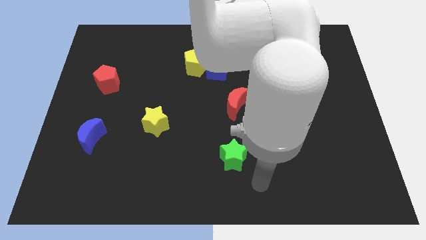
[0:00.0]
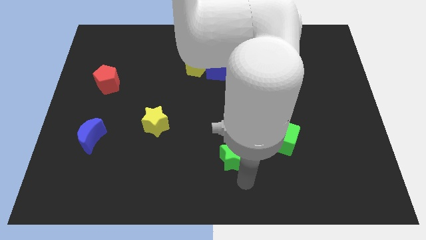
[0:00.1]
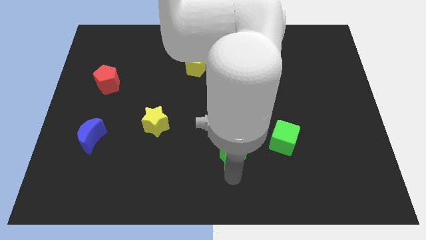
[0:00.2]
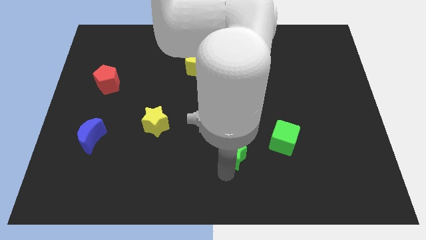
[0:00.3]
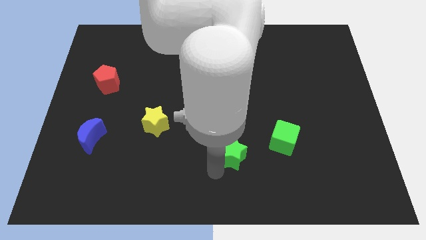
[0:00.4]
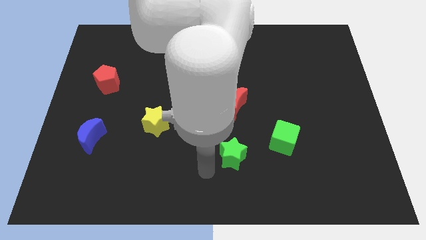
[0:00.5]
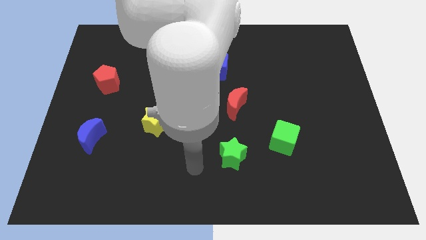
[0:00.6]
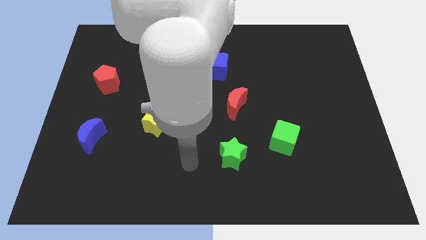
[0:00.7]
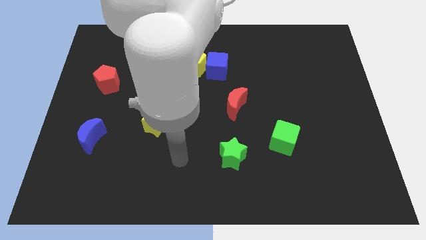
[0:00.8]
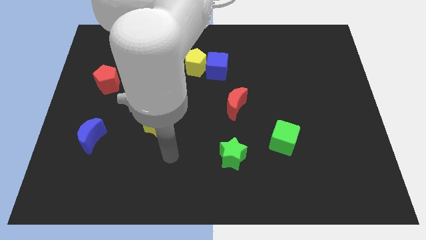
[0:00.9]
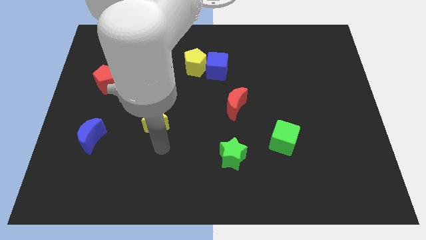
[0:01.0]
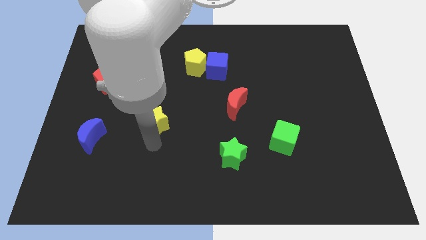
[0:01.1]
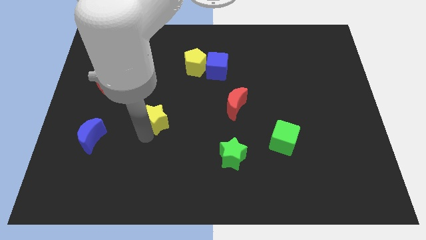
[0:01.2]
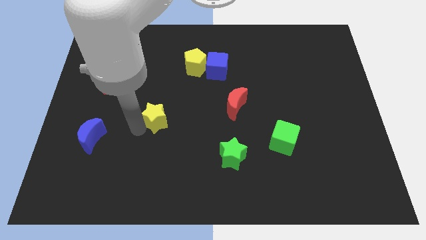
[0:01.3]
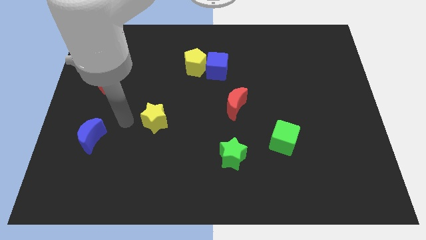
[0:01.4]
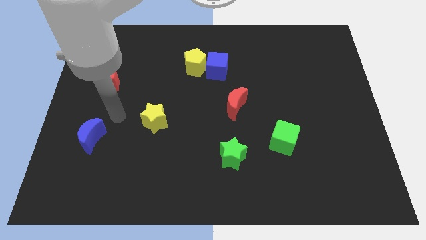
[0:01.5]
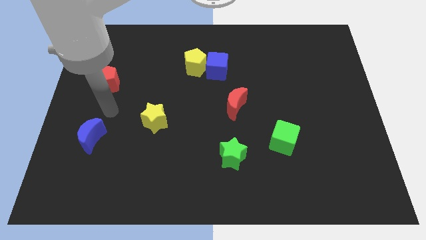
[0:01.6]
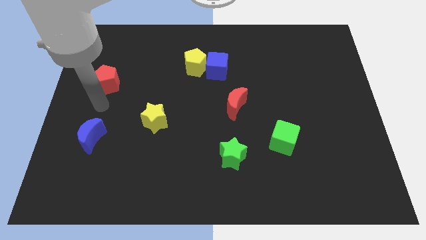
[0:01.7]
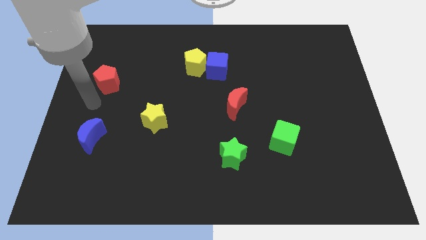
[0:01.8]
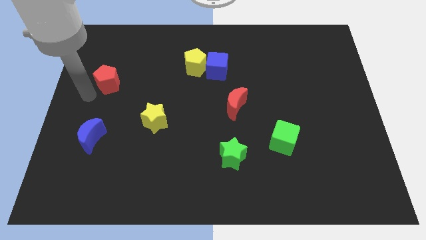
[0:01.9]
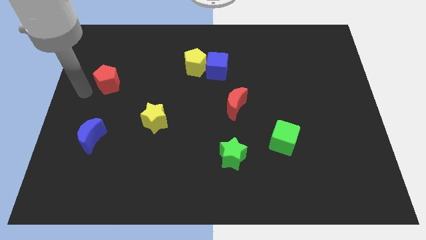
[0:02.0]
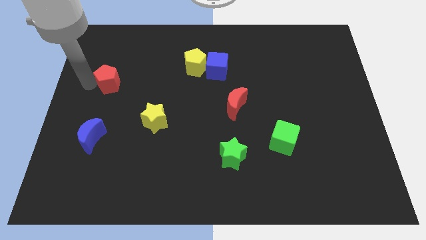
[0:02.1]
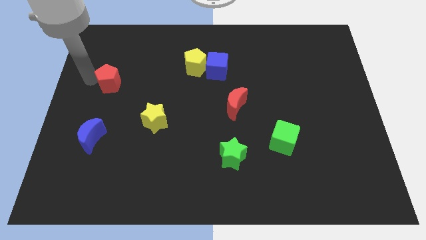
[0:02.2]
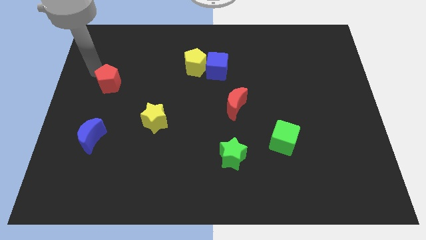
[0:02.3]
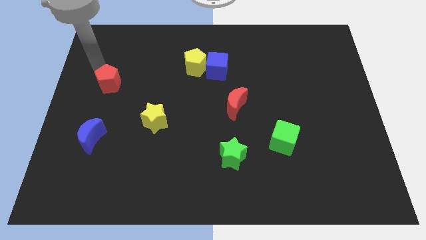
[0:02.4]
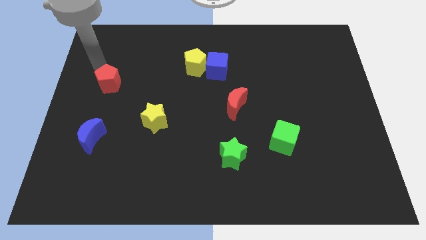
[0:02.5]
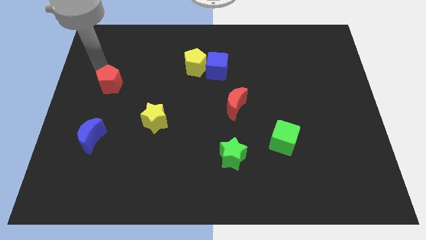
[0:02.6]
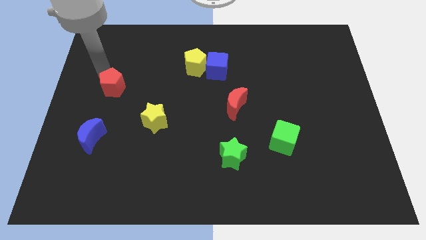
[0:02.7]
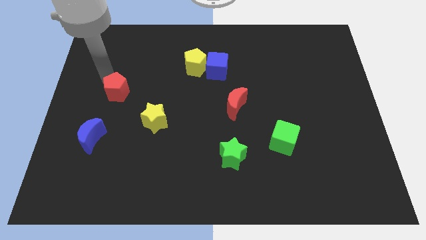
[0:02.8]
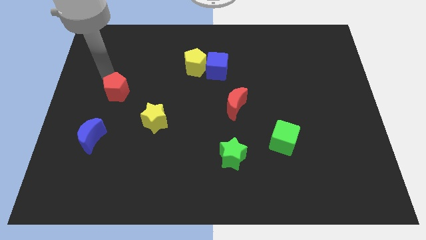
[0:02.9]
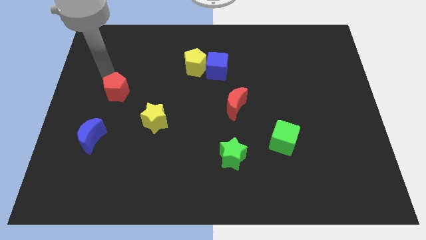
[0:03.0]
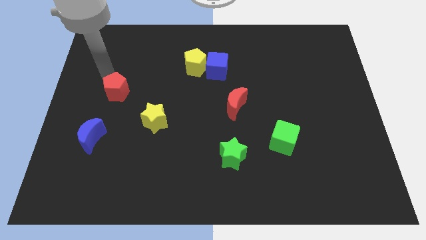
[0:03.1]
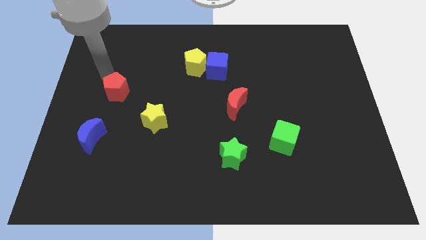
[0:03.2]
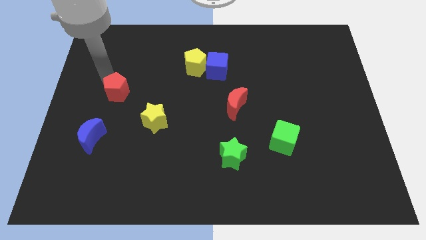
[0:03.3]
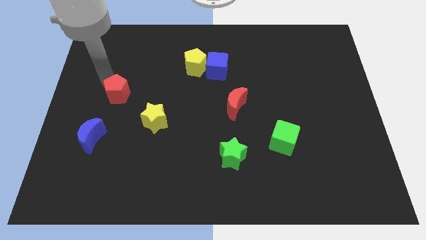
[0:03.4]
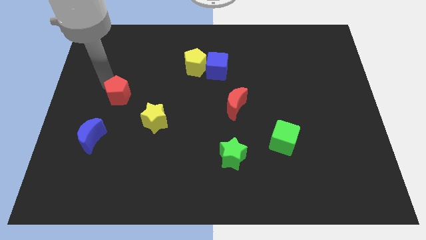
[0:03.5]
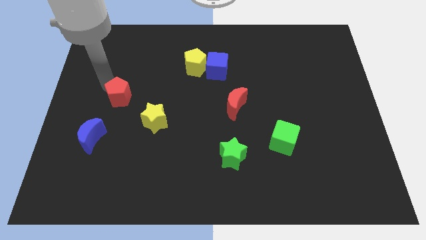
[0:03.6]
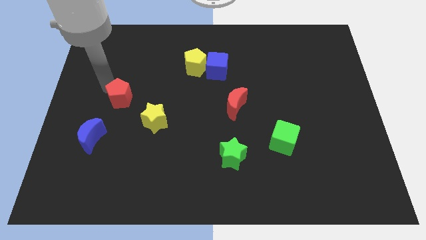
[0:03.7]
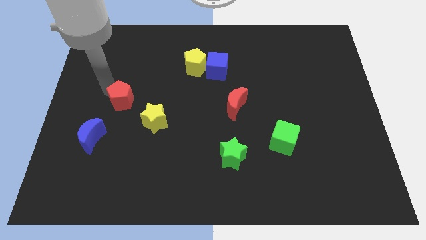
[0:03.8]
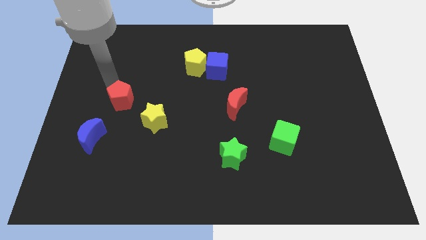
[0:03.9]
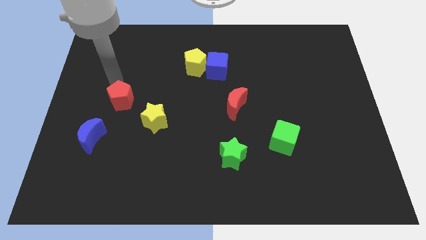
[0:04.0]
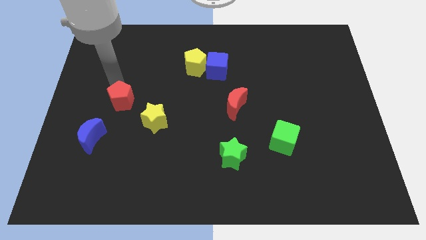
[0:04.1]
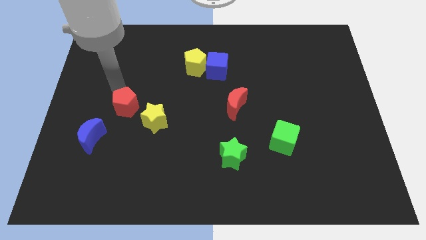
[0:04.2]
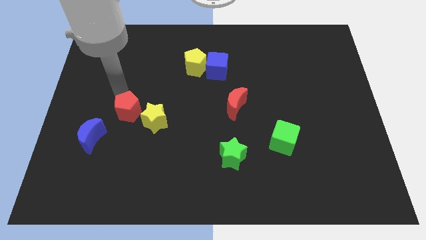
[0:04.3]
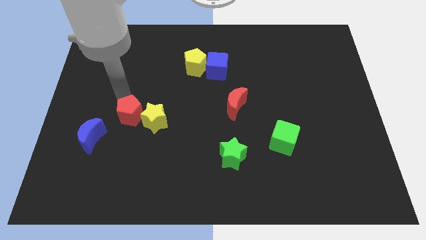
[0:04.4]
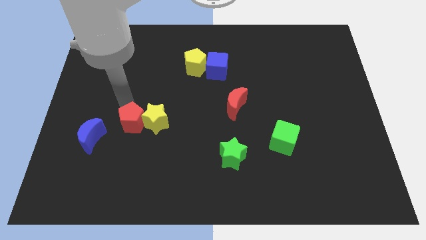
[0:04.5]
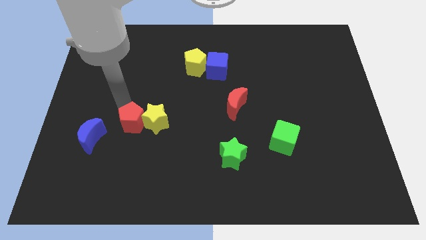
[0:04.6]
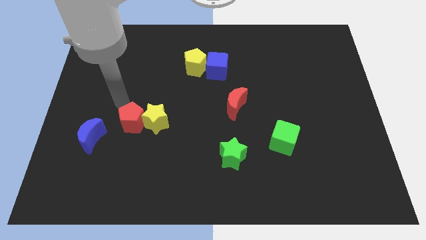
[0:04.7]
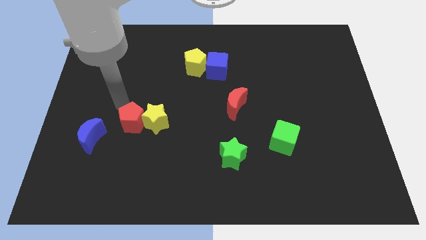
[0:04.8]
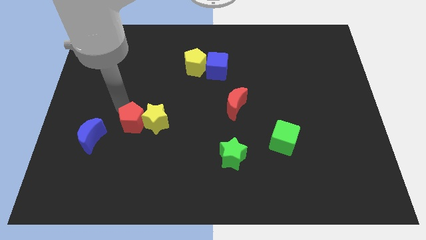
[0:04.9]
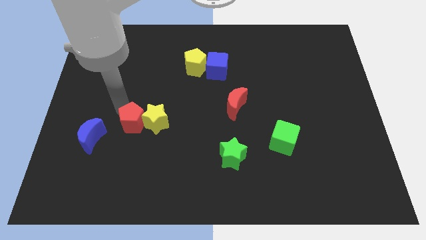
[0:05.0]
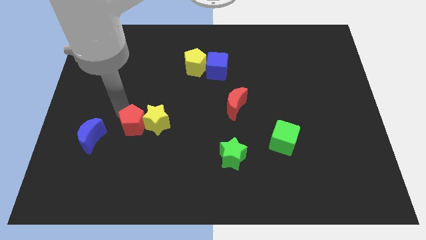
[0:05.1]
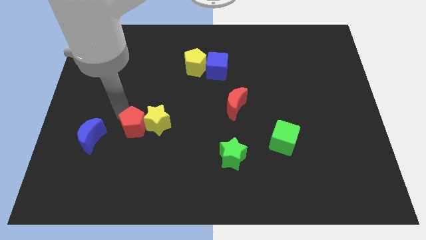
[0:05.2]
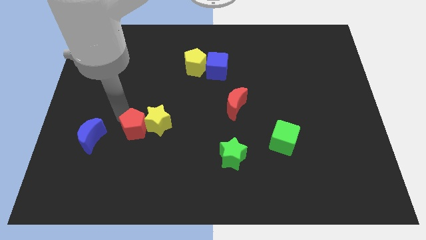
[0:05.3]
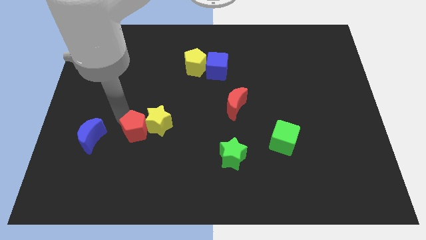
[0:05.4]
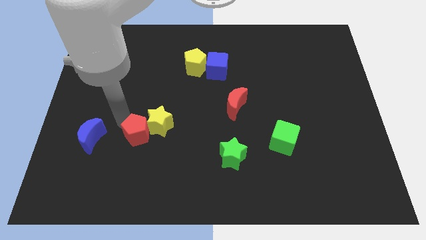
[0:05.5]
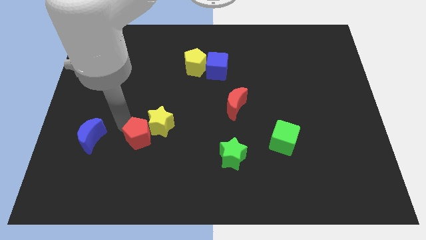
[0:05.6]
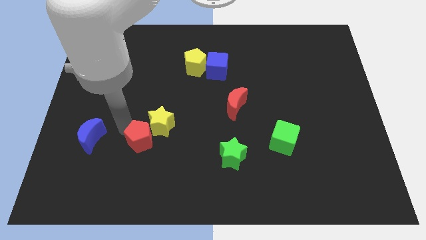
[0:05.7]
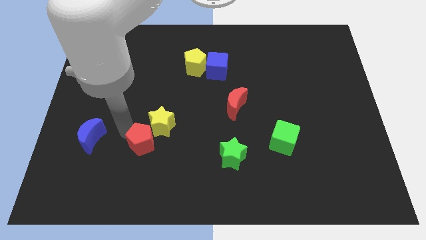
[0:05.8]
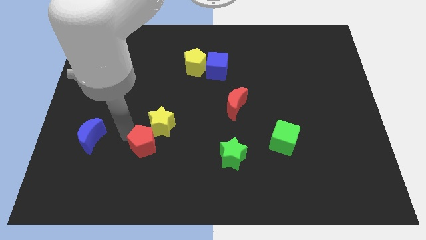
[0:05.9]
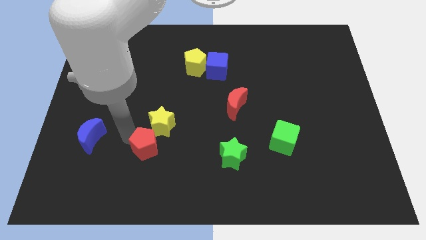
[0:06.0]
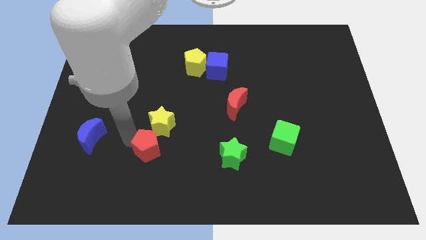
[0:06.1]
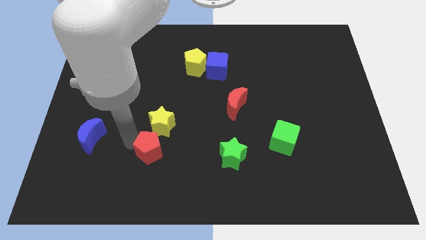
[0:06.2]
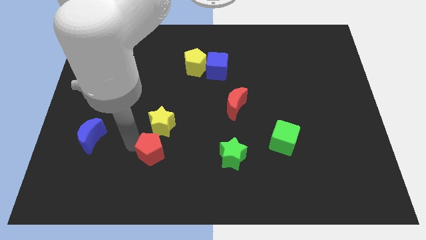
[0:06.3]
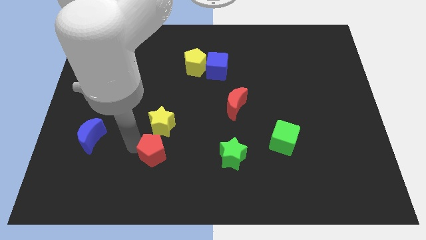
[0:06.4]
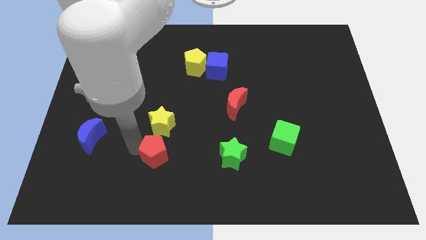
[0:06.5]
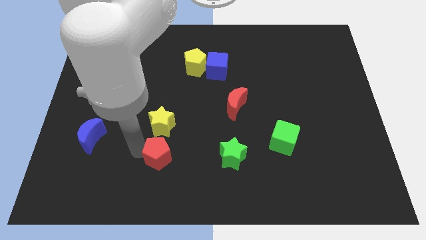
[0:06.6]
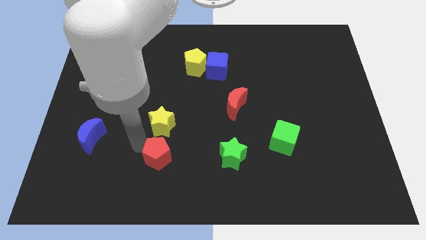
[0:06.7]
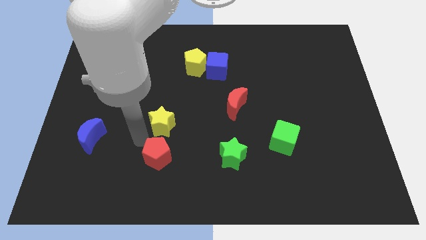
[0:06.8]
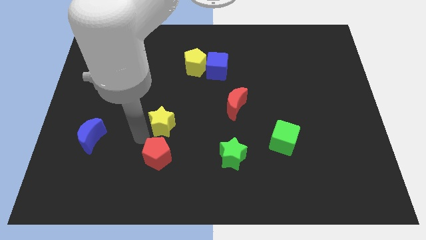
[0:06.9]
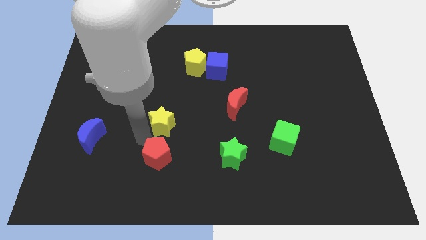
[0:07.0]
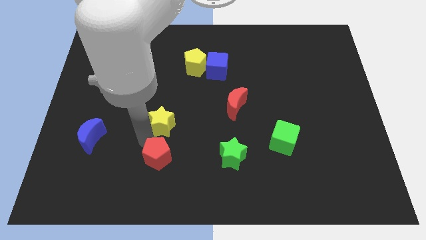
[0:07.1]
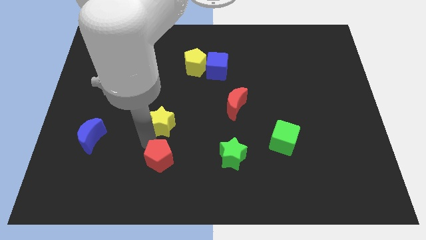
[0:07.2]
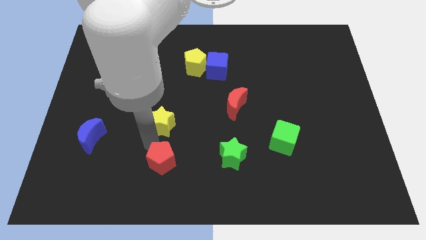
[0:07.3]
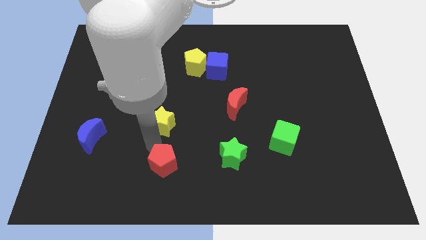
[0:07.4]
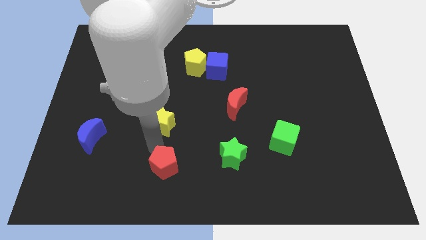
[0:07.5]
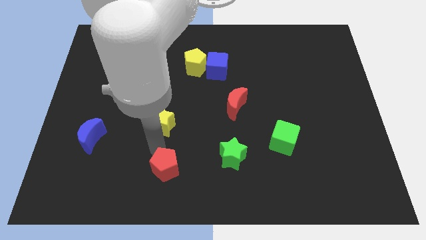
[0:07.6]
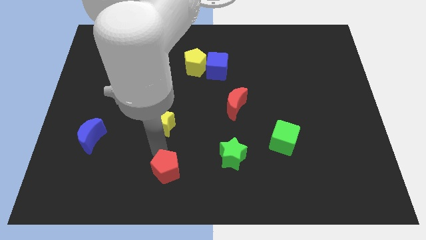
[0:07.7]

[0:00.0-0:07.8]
push the red pentagon to the bottom

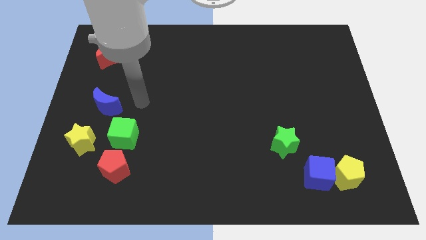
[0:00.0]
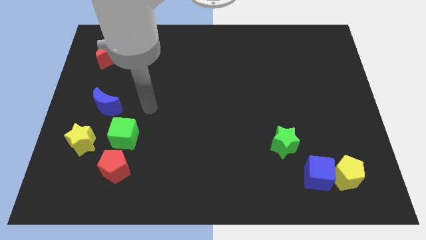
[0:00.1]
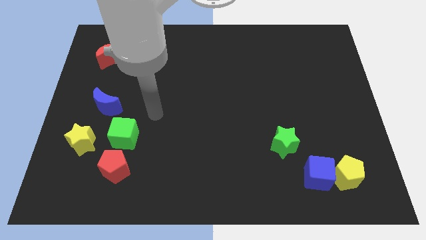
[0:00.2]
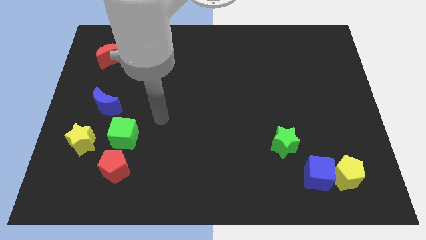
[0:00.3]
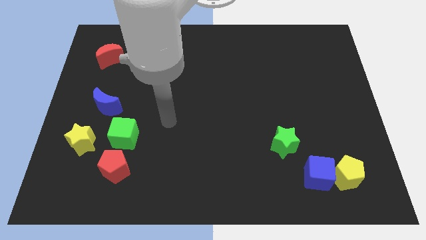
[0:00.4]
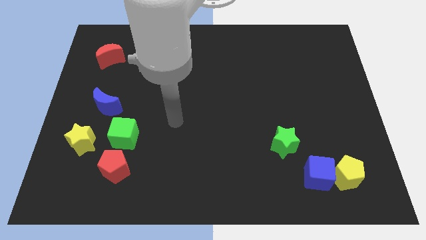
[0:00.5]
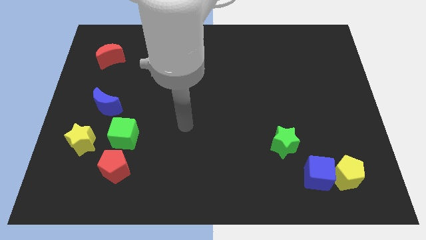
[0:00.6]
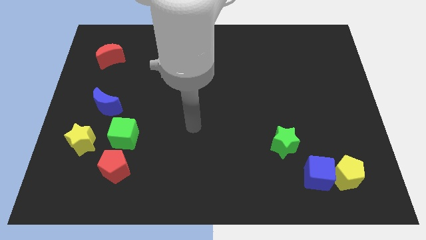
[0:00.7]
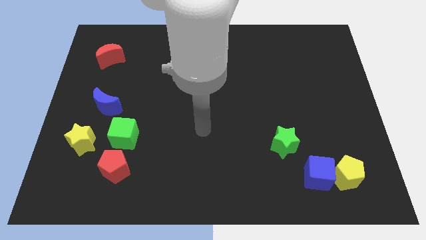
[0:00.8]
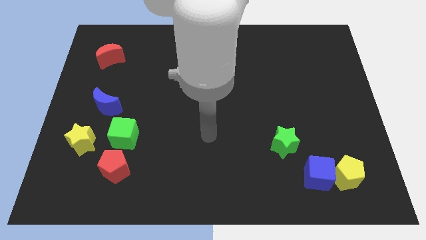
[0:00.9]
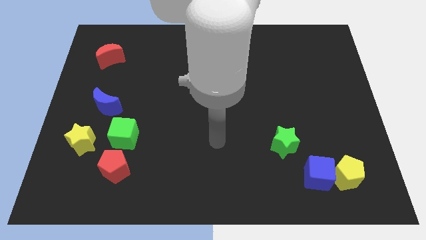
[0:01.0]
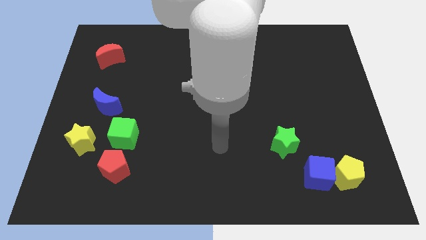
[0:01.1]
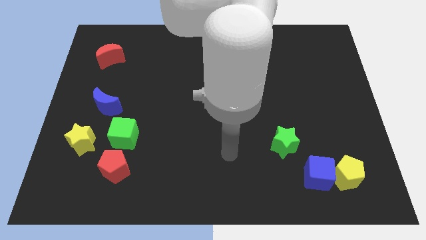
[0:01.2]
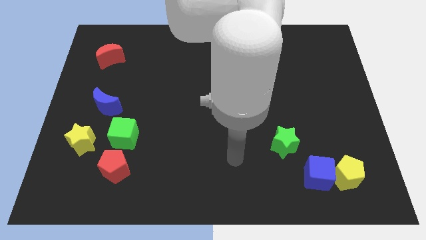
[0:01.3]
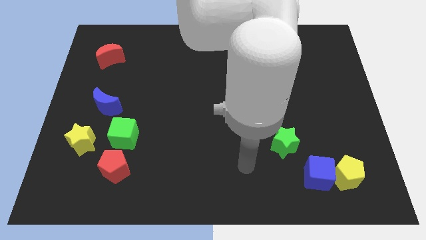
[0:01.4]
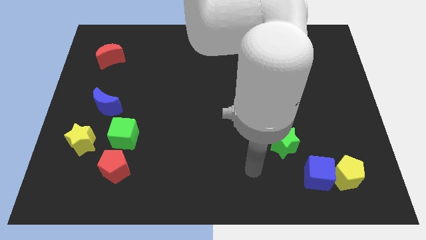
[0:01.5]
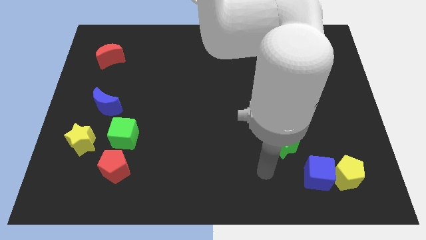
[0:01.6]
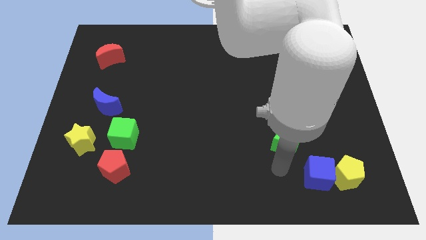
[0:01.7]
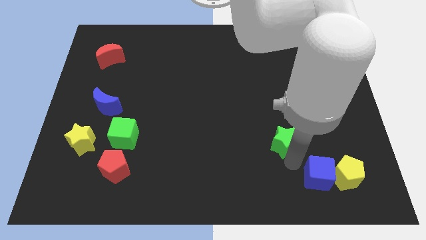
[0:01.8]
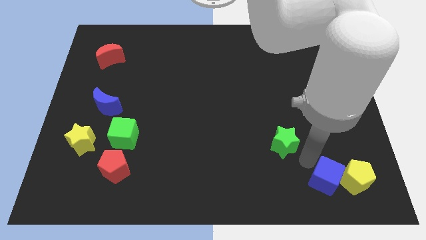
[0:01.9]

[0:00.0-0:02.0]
push the yellow pentagon to the lower right corner
